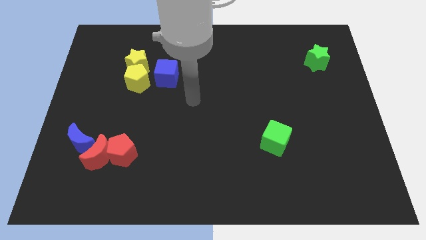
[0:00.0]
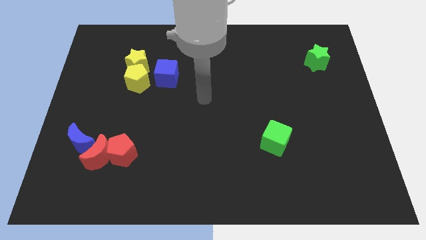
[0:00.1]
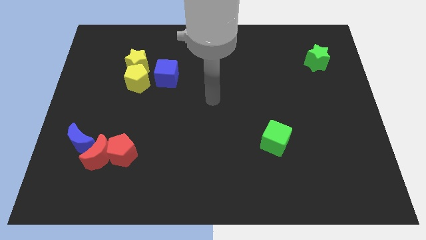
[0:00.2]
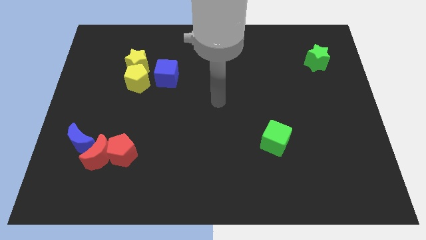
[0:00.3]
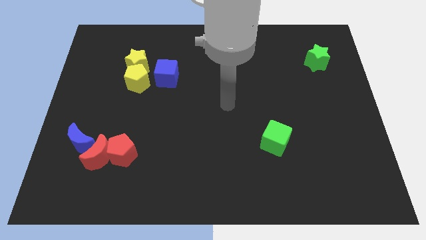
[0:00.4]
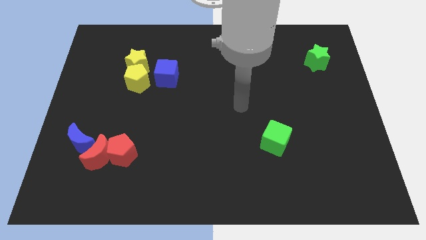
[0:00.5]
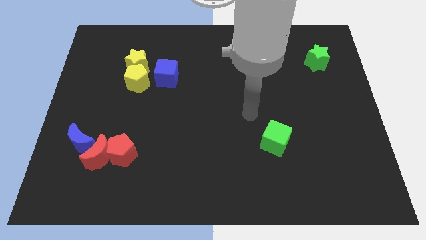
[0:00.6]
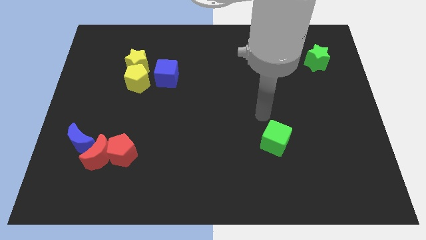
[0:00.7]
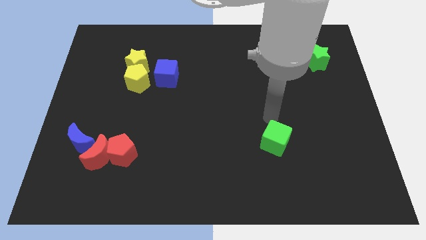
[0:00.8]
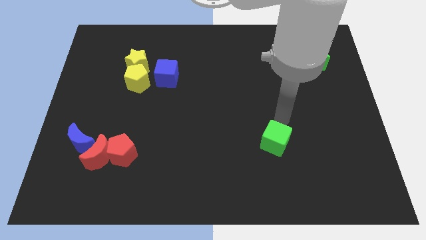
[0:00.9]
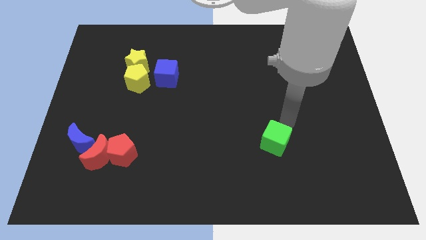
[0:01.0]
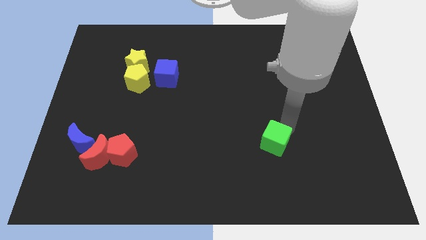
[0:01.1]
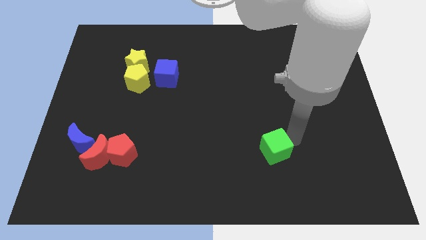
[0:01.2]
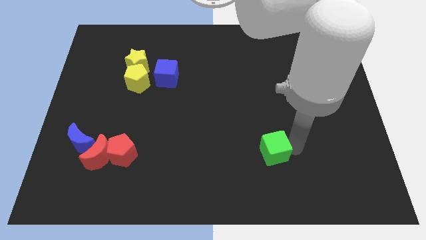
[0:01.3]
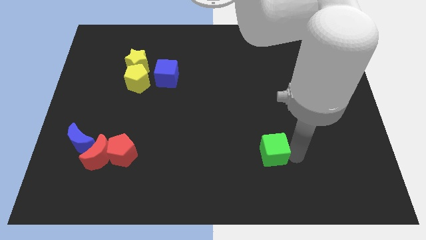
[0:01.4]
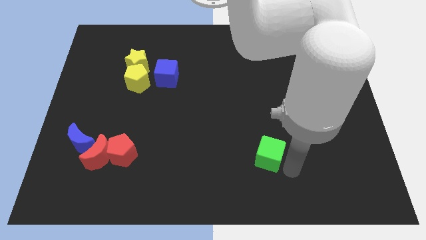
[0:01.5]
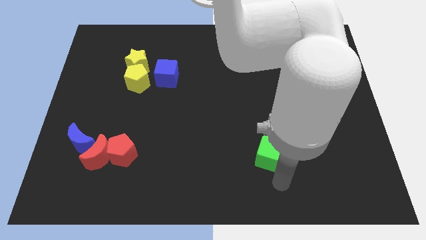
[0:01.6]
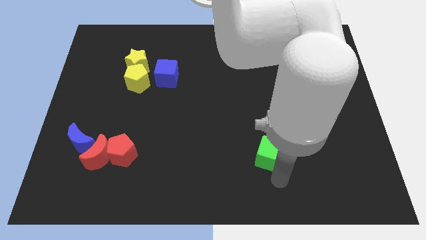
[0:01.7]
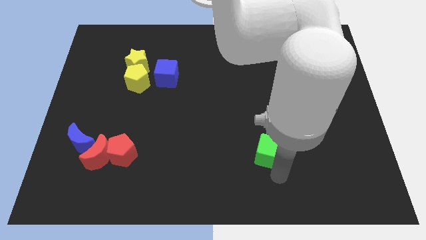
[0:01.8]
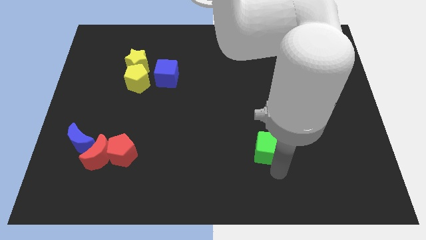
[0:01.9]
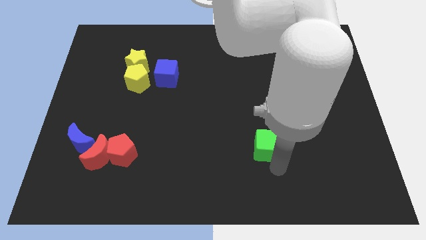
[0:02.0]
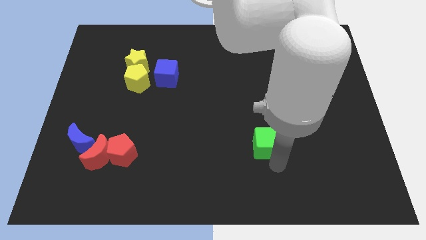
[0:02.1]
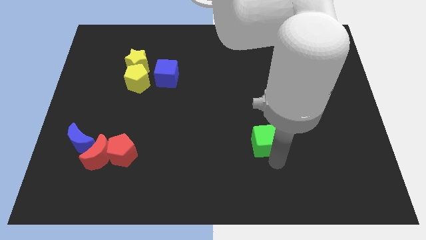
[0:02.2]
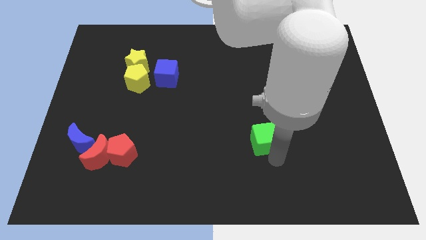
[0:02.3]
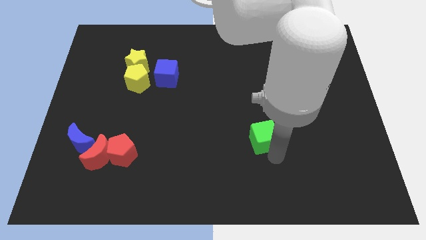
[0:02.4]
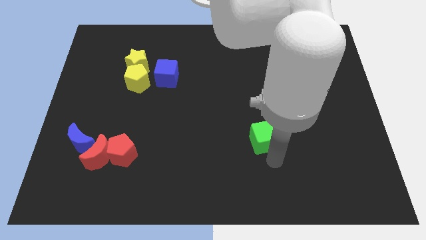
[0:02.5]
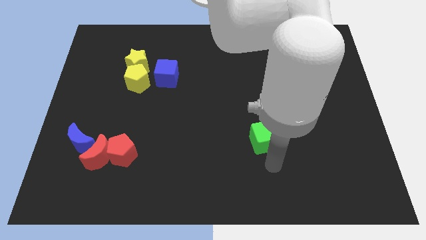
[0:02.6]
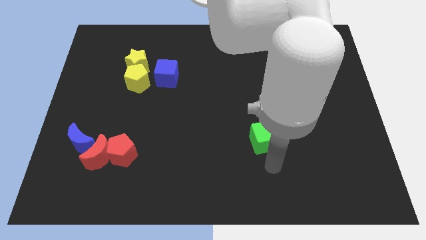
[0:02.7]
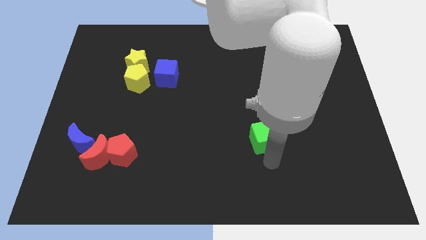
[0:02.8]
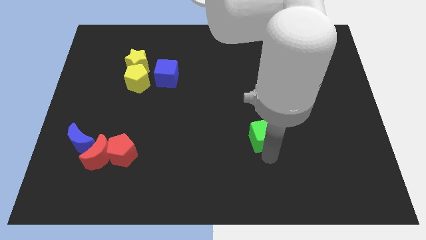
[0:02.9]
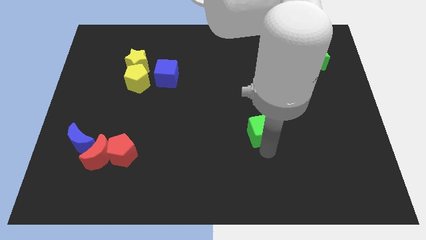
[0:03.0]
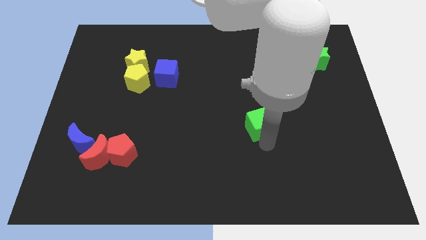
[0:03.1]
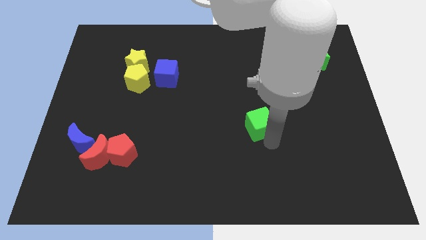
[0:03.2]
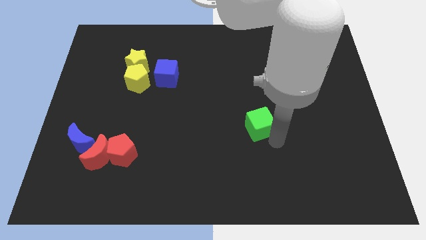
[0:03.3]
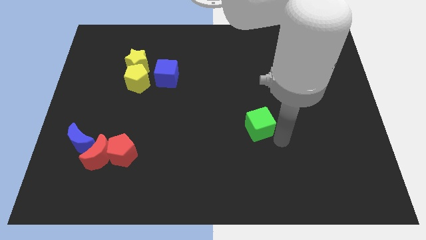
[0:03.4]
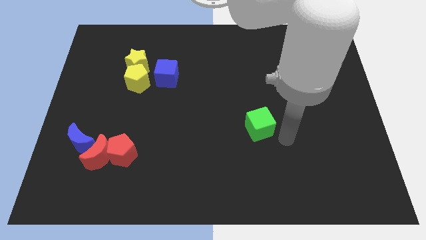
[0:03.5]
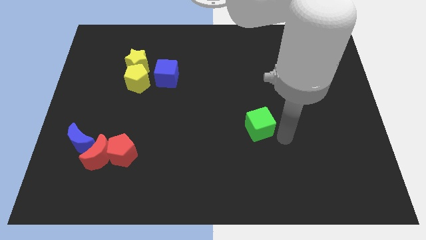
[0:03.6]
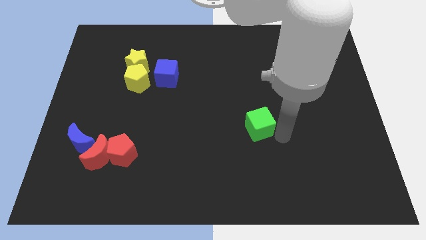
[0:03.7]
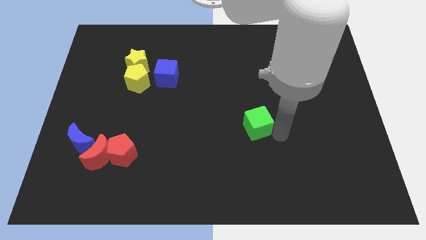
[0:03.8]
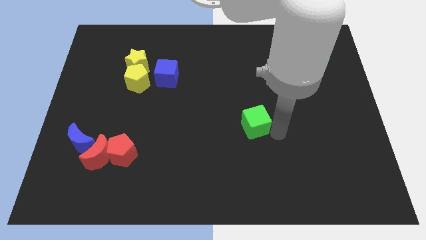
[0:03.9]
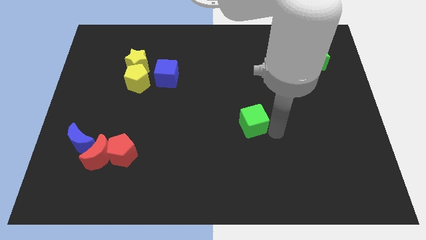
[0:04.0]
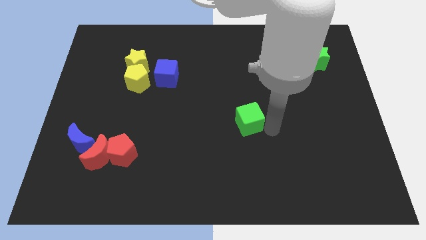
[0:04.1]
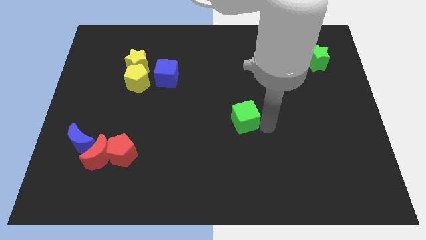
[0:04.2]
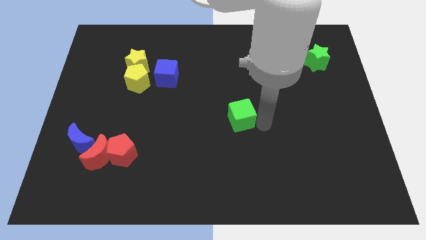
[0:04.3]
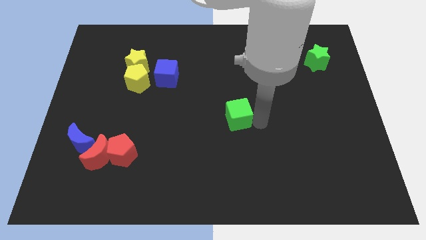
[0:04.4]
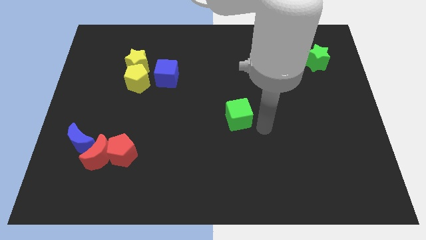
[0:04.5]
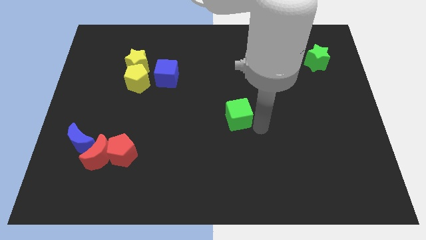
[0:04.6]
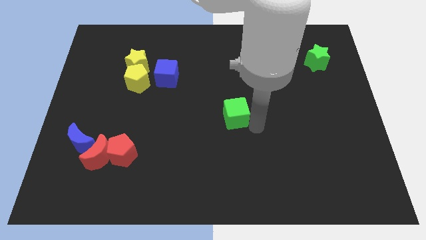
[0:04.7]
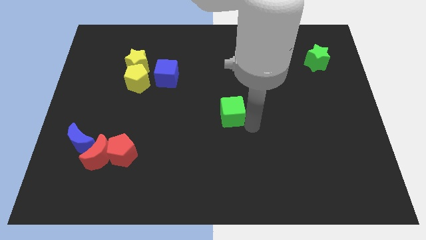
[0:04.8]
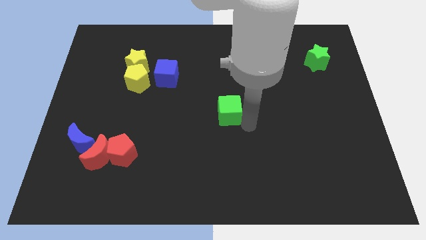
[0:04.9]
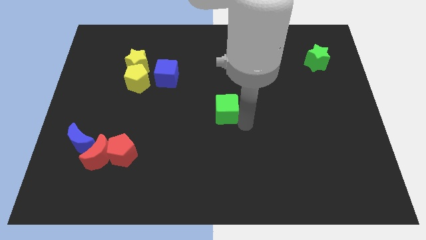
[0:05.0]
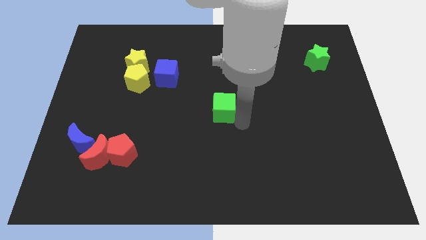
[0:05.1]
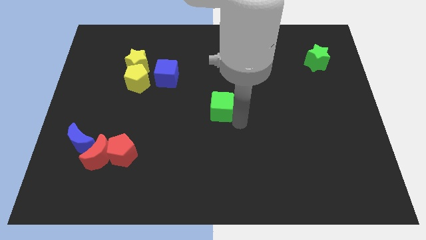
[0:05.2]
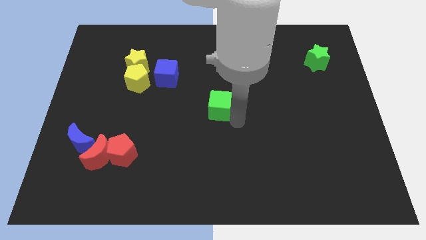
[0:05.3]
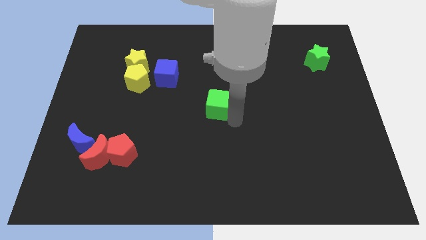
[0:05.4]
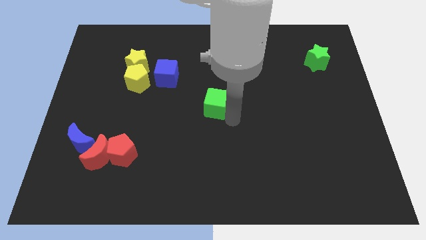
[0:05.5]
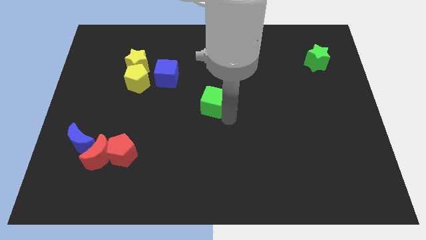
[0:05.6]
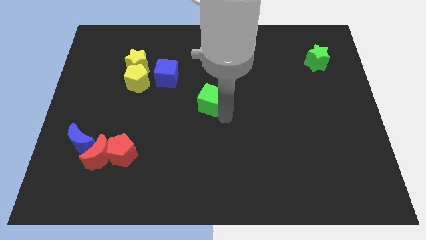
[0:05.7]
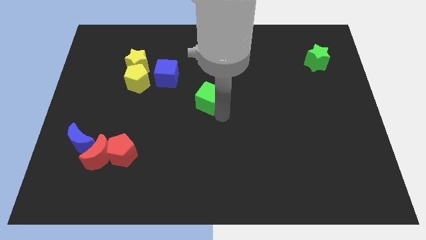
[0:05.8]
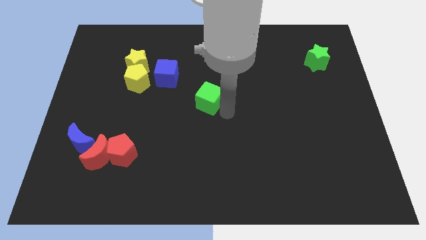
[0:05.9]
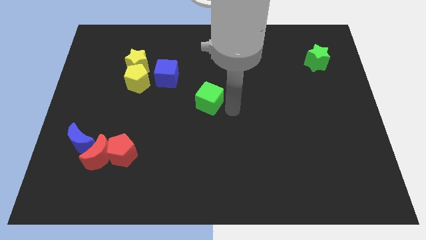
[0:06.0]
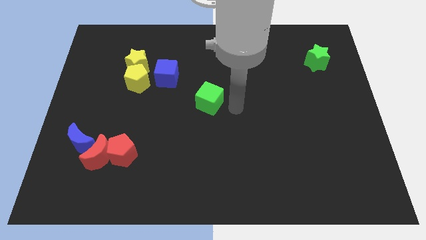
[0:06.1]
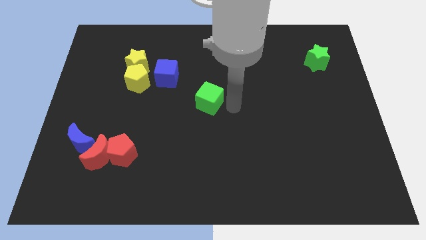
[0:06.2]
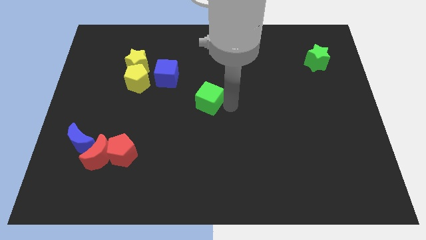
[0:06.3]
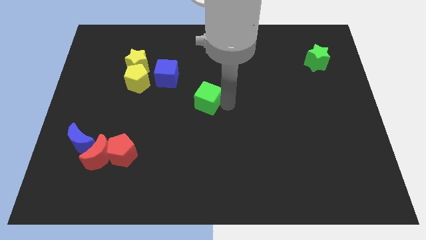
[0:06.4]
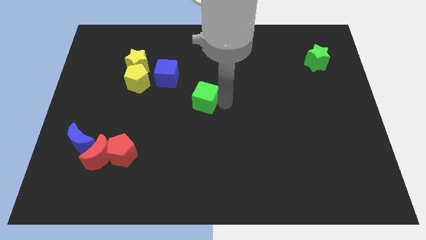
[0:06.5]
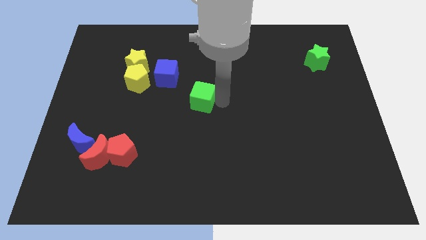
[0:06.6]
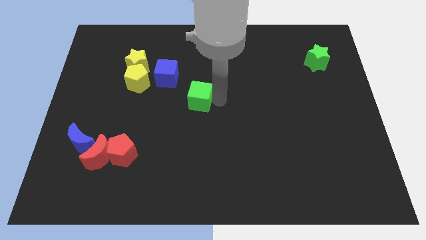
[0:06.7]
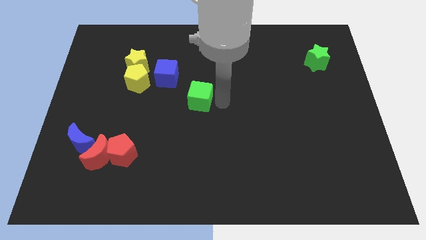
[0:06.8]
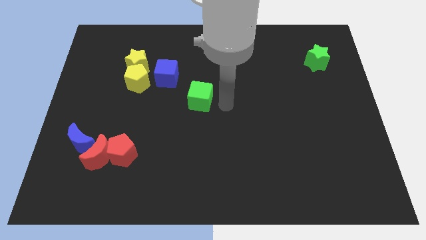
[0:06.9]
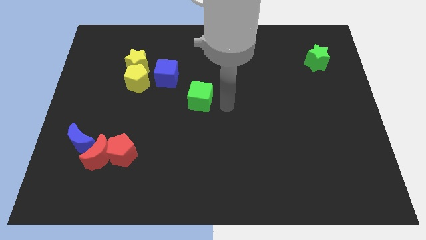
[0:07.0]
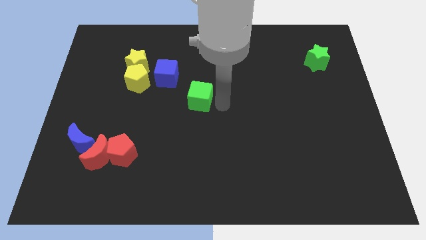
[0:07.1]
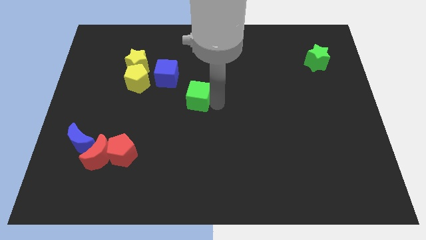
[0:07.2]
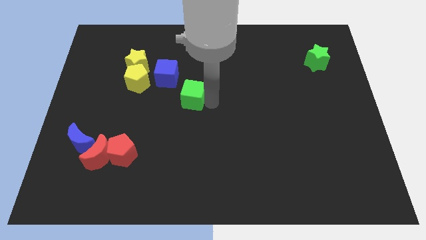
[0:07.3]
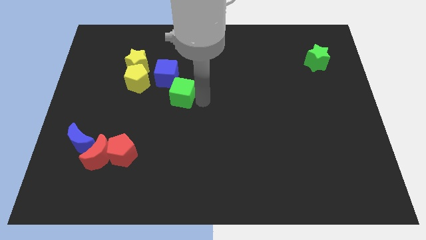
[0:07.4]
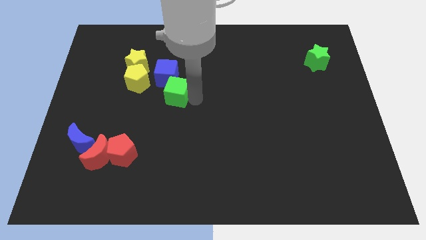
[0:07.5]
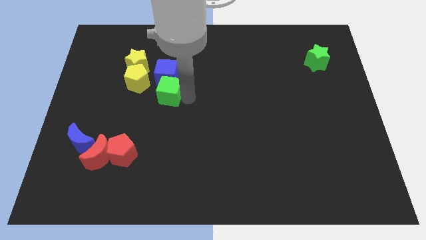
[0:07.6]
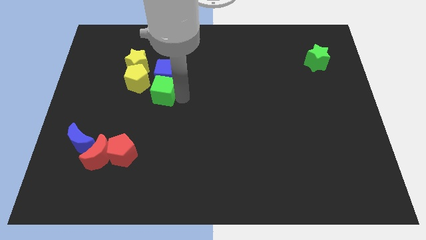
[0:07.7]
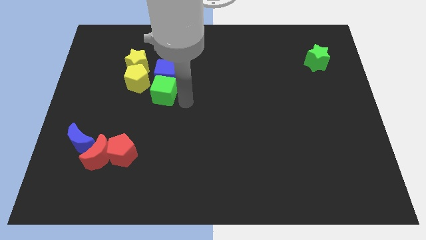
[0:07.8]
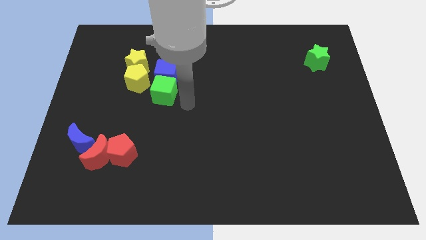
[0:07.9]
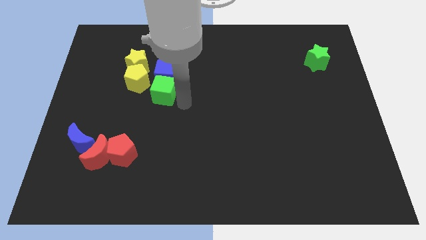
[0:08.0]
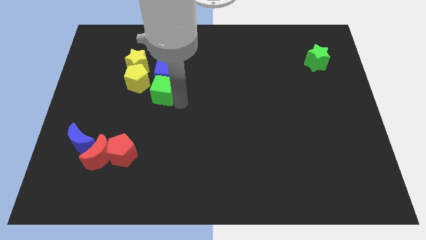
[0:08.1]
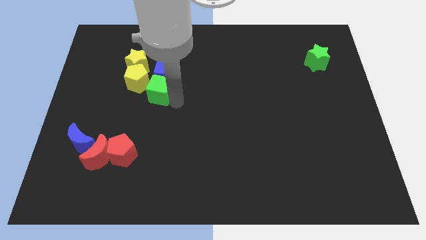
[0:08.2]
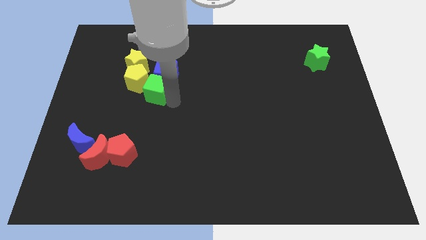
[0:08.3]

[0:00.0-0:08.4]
slide the green cube to the yellow pentagon
